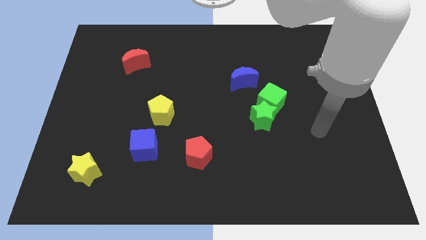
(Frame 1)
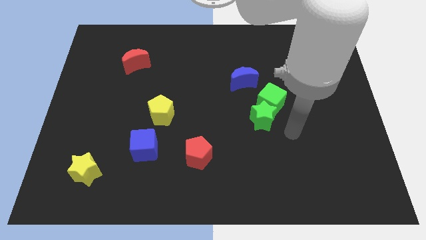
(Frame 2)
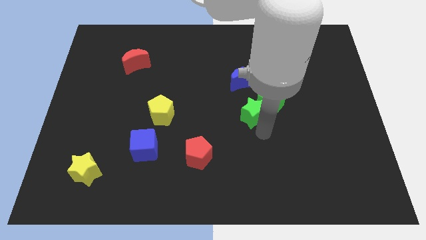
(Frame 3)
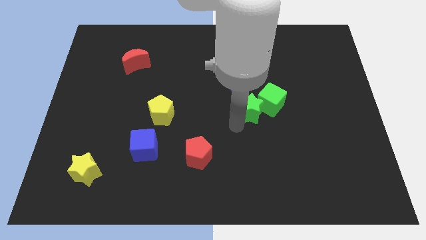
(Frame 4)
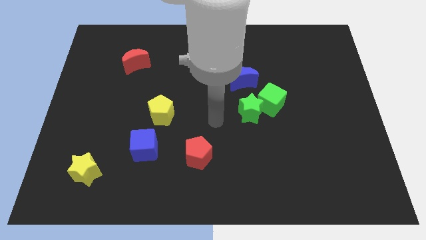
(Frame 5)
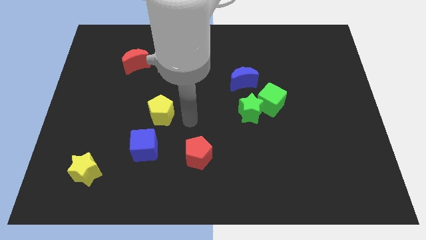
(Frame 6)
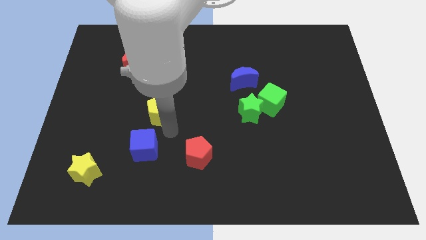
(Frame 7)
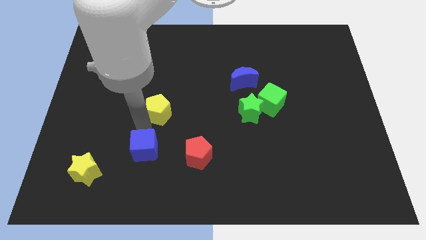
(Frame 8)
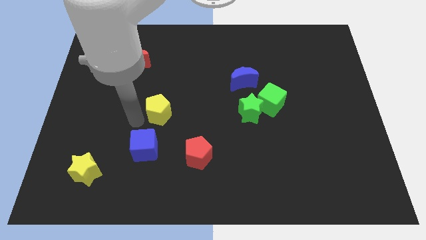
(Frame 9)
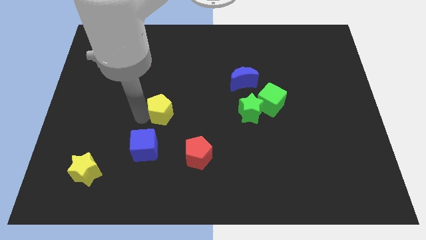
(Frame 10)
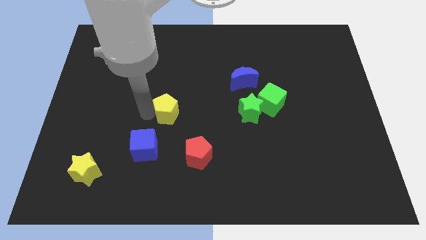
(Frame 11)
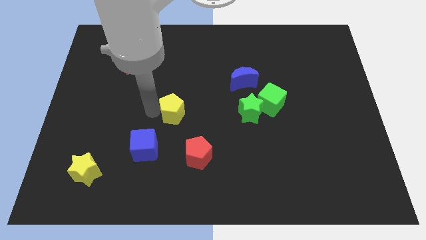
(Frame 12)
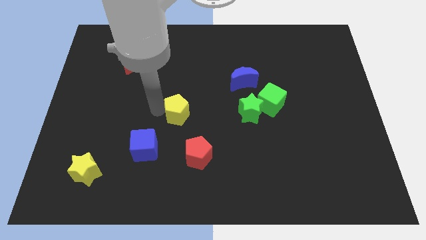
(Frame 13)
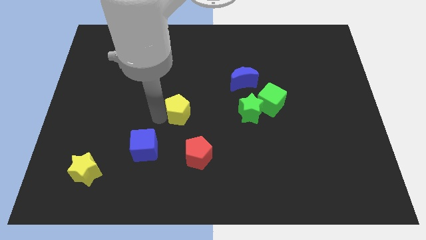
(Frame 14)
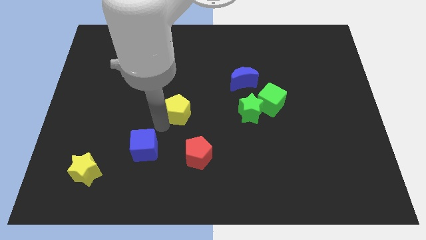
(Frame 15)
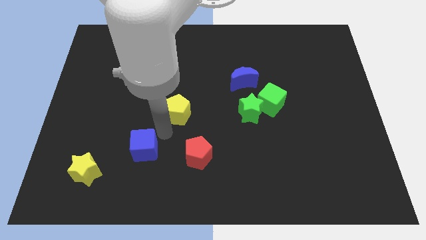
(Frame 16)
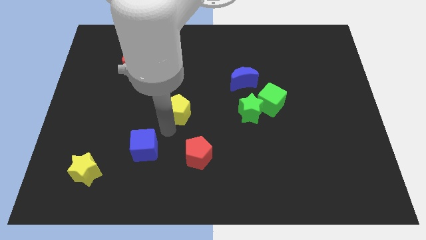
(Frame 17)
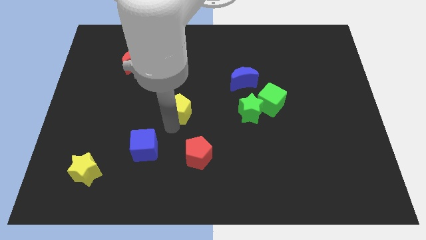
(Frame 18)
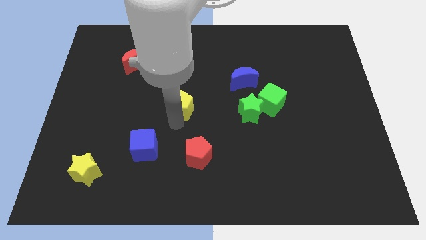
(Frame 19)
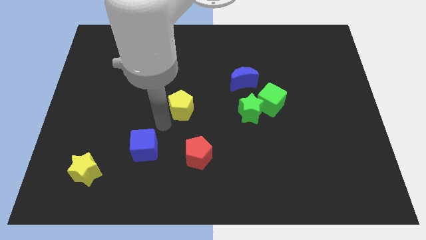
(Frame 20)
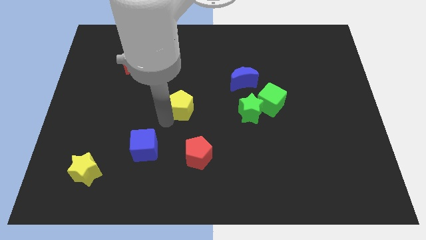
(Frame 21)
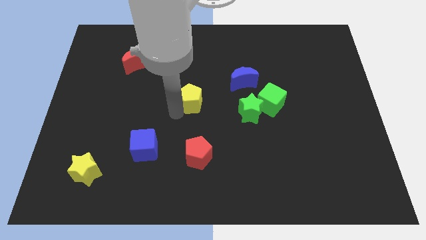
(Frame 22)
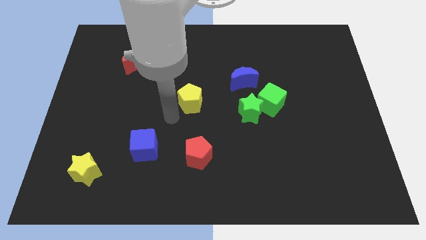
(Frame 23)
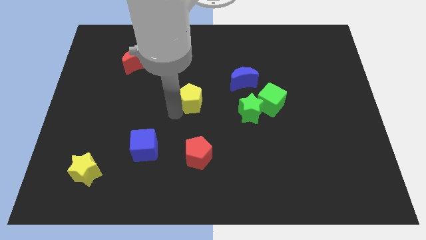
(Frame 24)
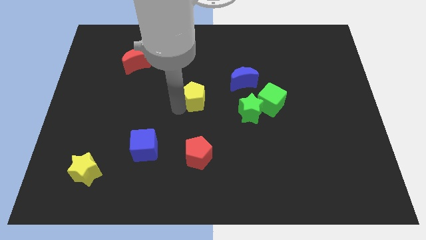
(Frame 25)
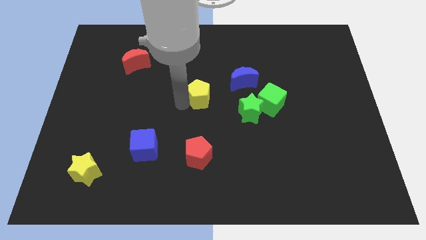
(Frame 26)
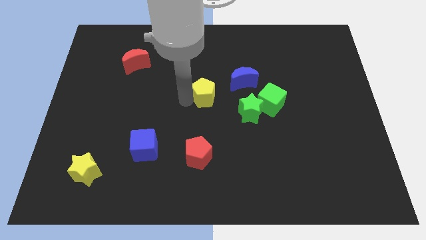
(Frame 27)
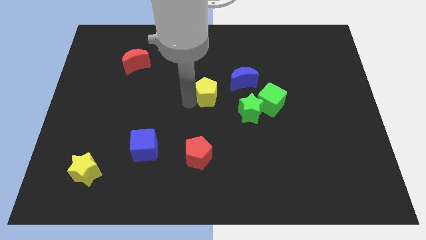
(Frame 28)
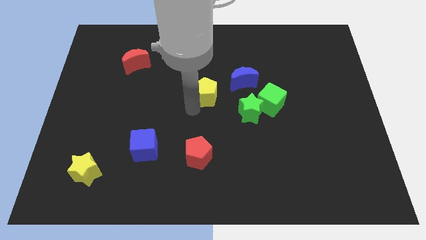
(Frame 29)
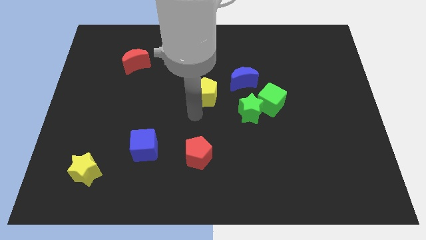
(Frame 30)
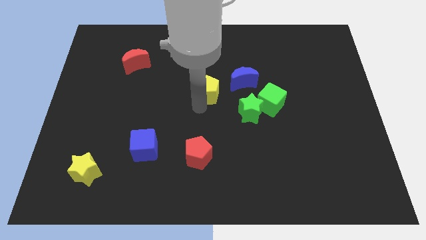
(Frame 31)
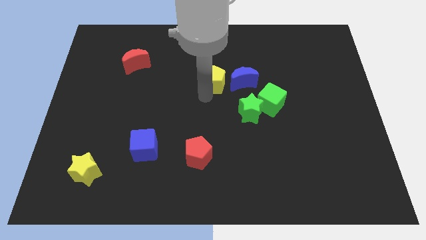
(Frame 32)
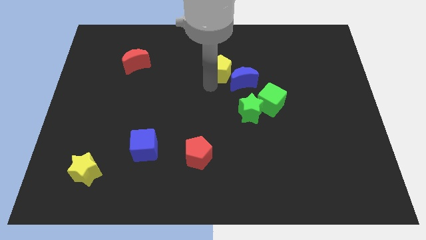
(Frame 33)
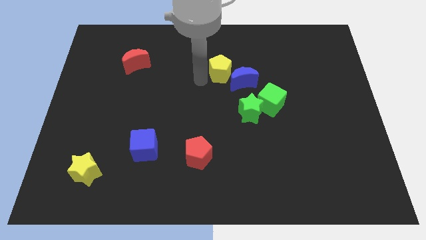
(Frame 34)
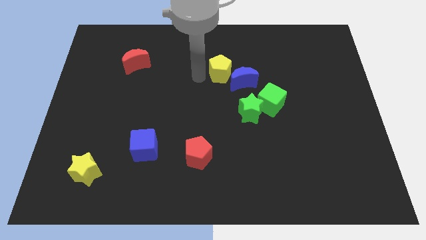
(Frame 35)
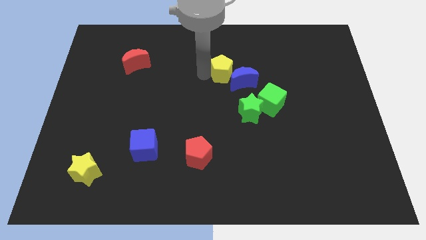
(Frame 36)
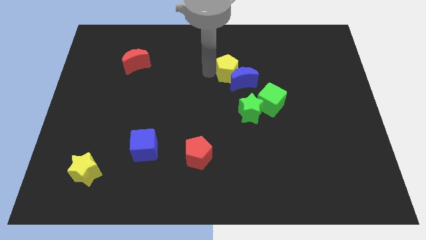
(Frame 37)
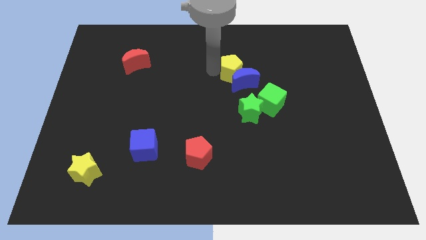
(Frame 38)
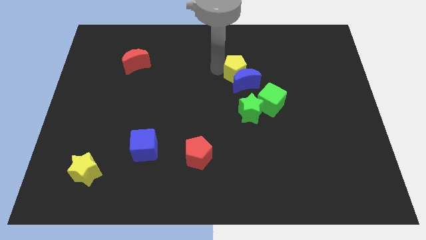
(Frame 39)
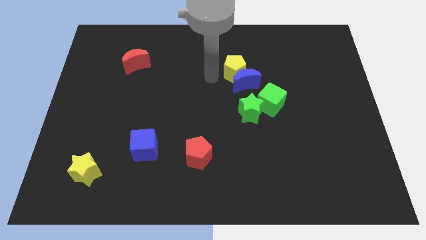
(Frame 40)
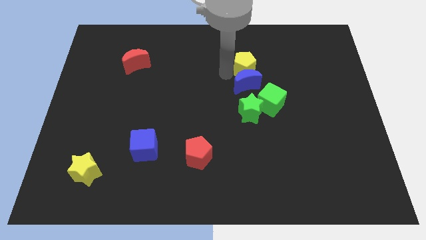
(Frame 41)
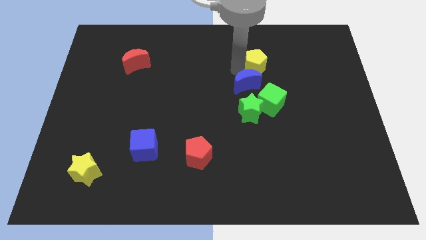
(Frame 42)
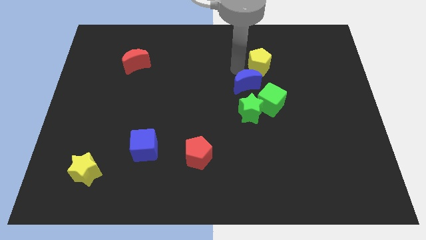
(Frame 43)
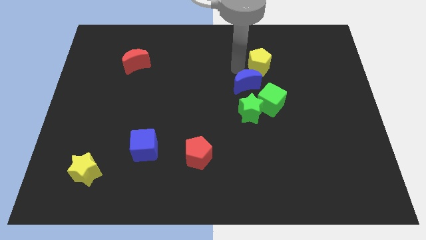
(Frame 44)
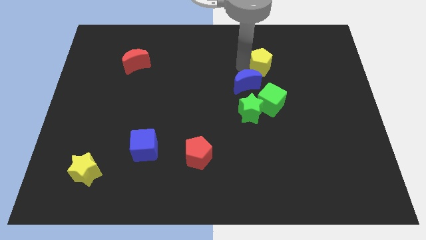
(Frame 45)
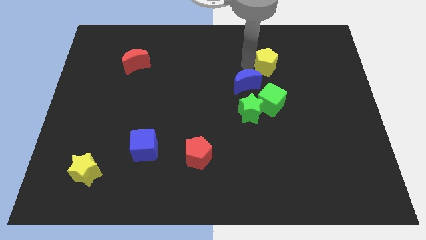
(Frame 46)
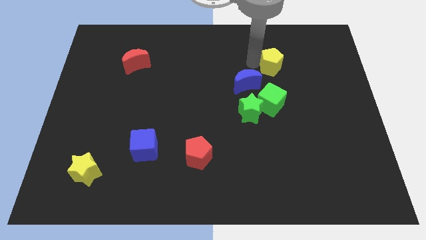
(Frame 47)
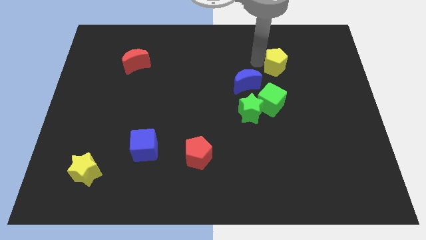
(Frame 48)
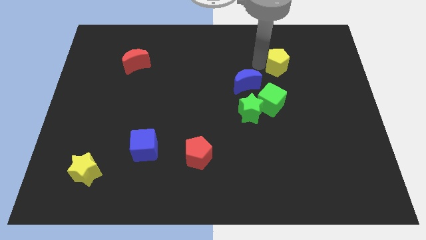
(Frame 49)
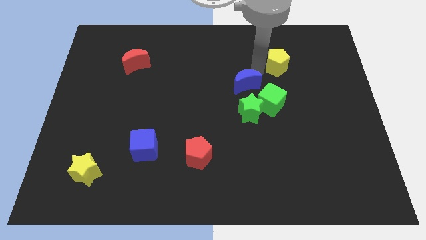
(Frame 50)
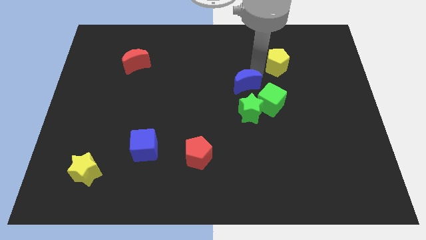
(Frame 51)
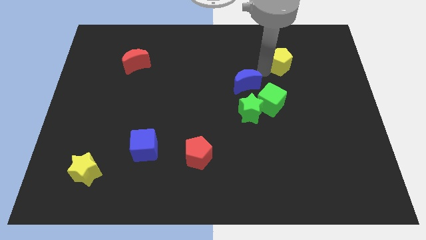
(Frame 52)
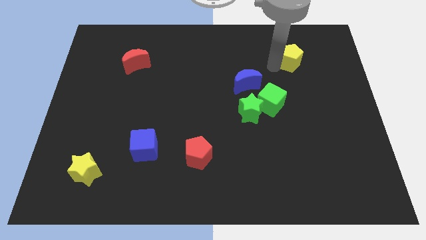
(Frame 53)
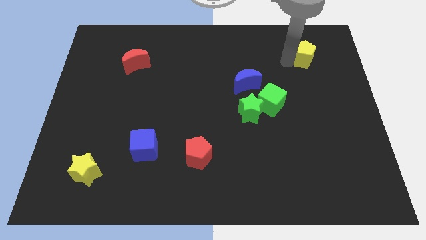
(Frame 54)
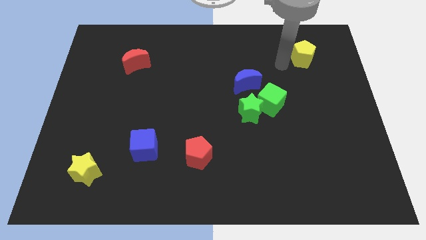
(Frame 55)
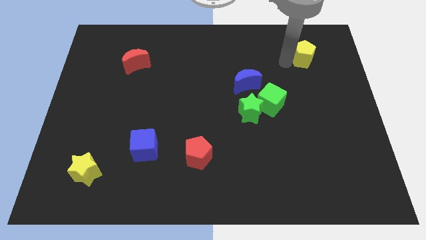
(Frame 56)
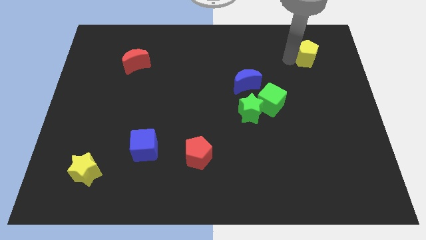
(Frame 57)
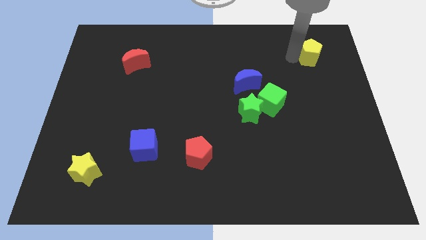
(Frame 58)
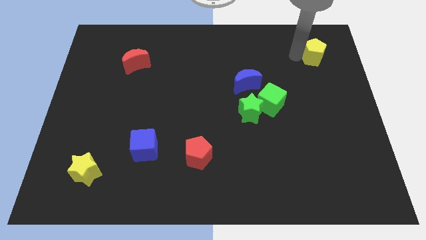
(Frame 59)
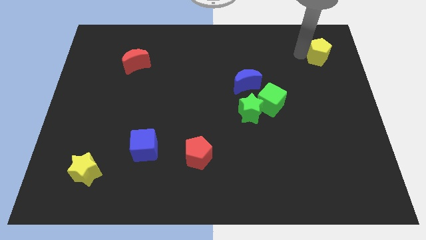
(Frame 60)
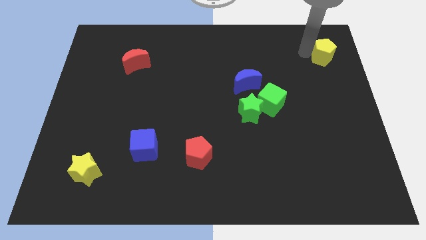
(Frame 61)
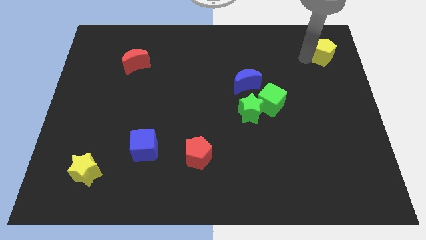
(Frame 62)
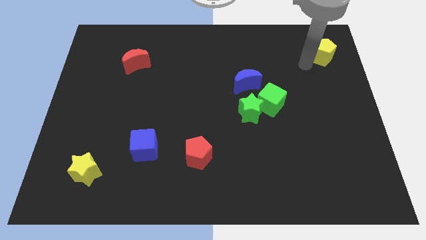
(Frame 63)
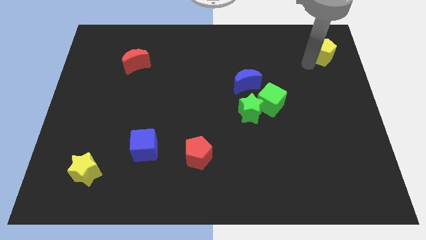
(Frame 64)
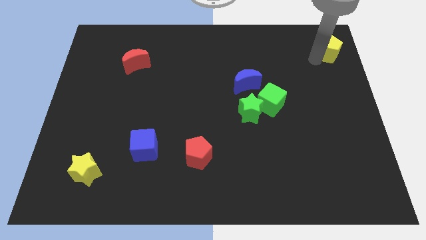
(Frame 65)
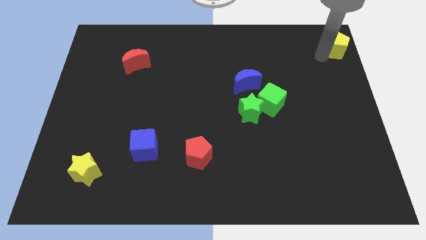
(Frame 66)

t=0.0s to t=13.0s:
push the yellow pentagon to the top right corner
